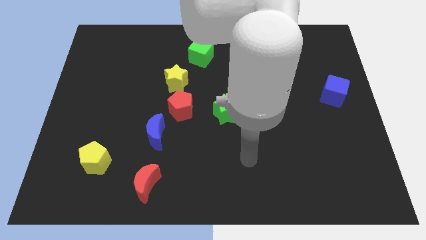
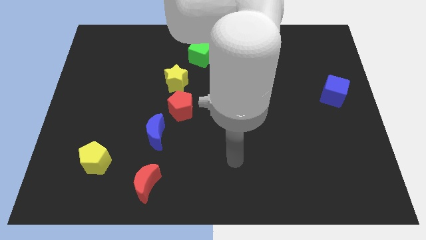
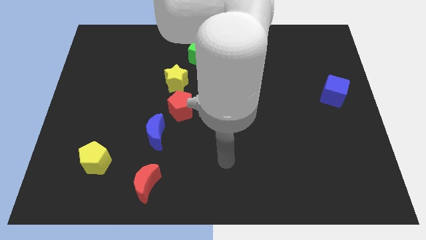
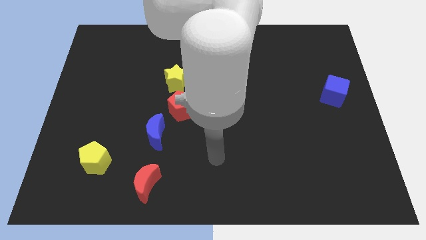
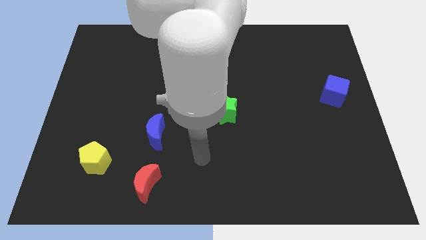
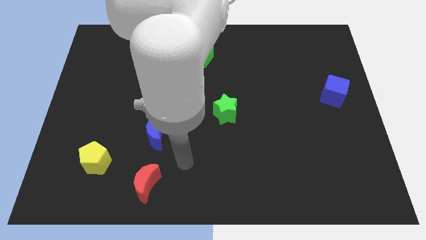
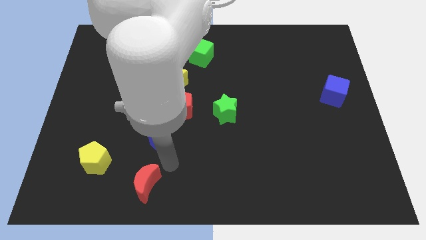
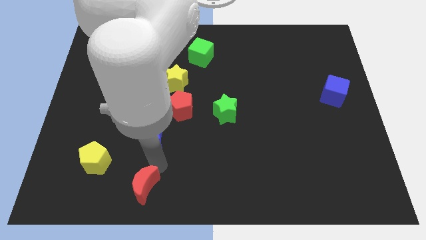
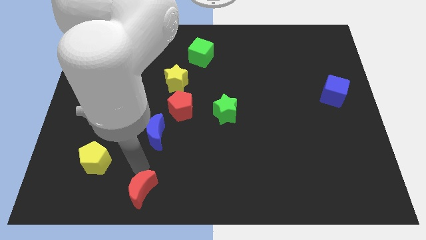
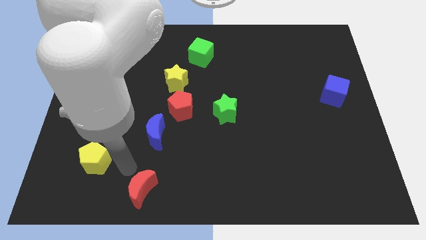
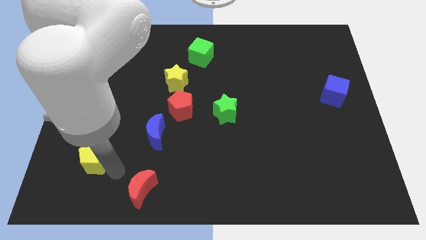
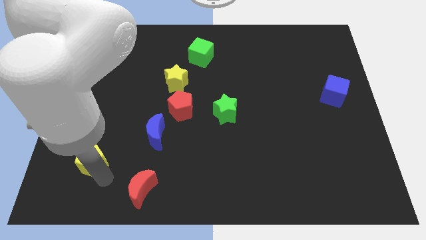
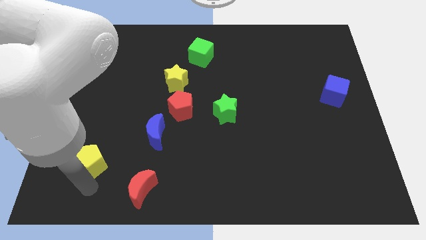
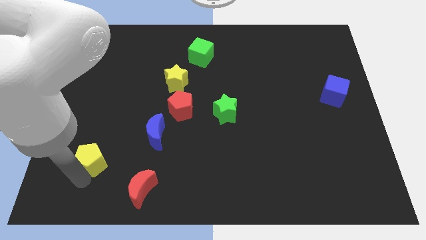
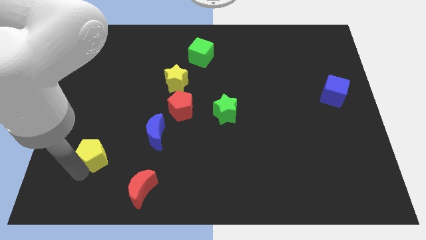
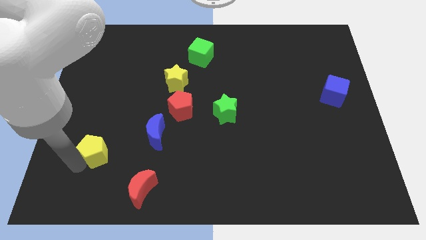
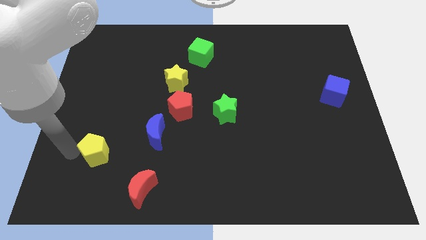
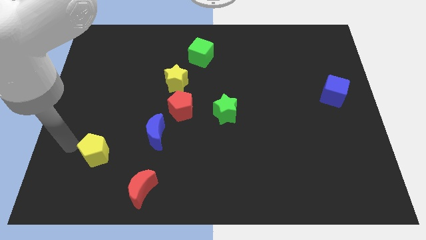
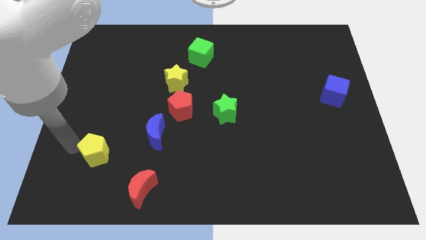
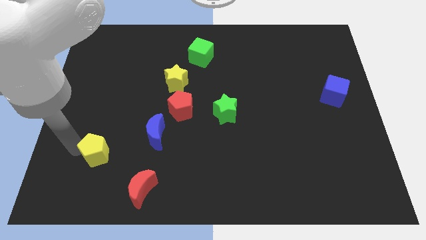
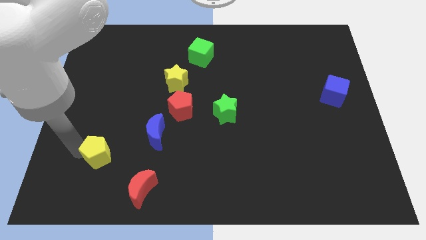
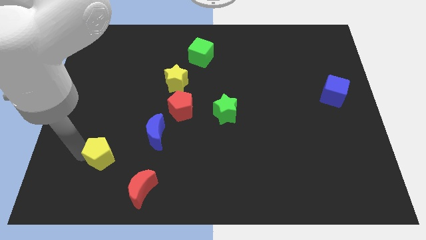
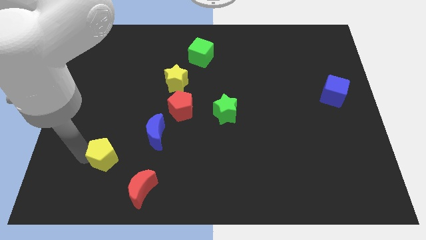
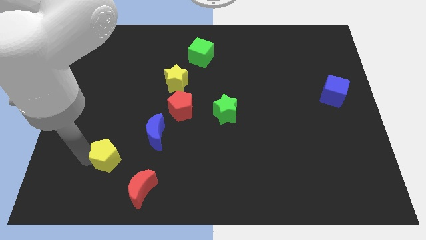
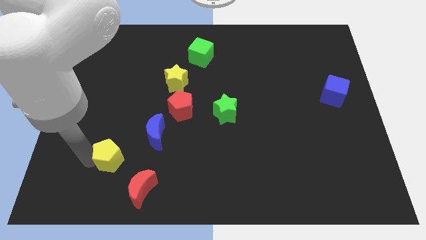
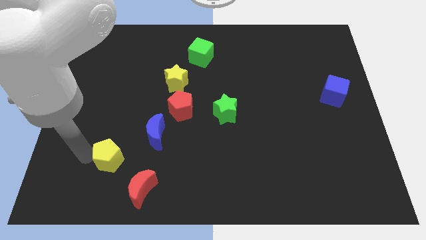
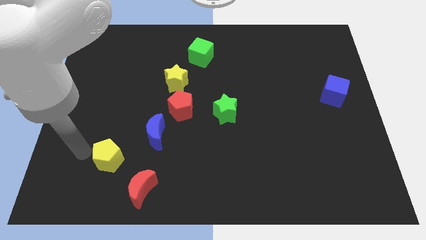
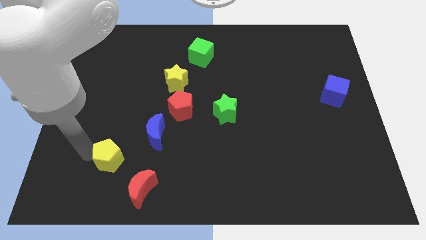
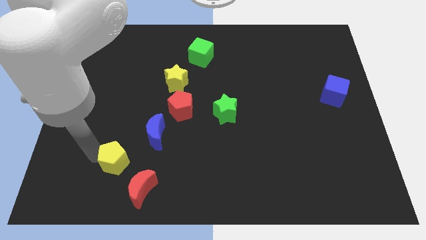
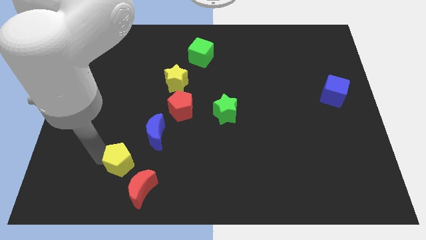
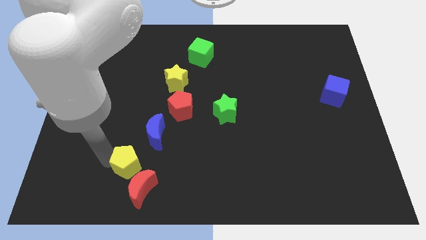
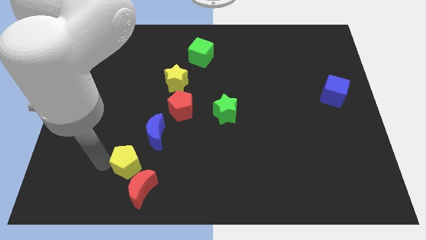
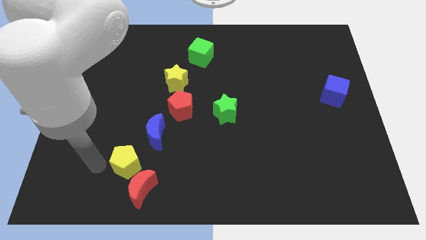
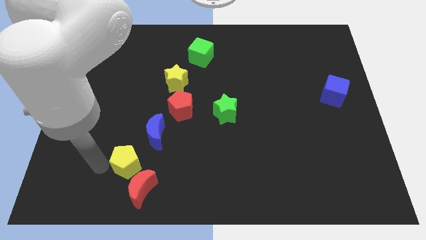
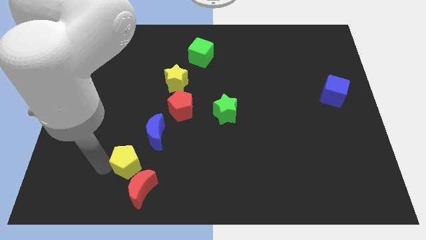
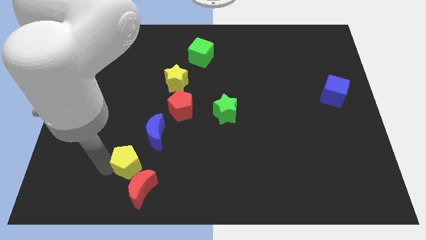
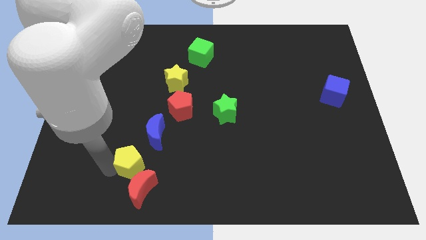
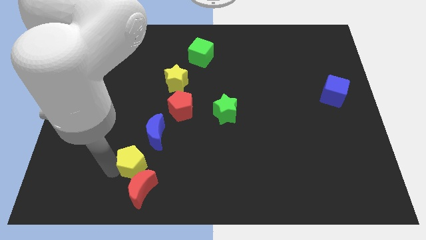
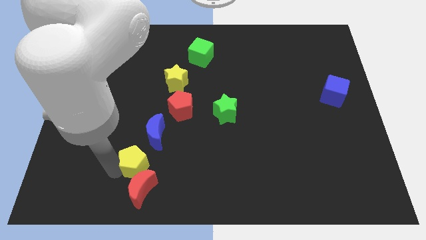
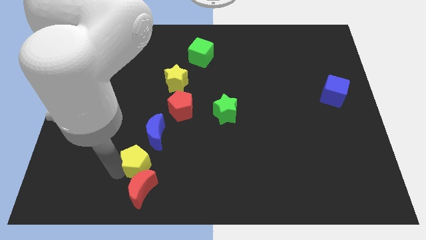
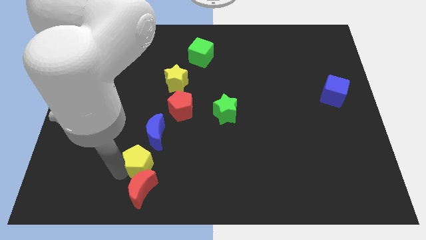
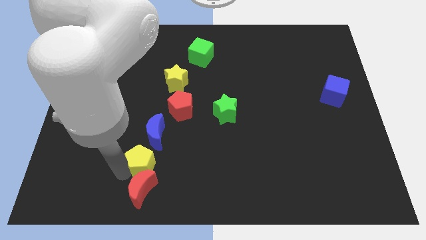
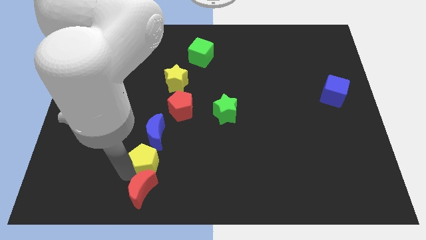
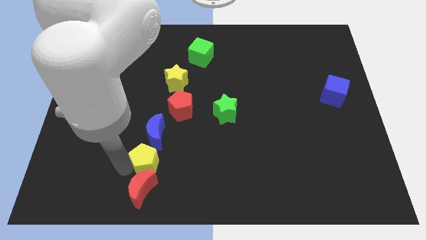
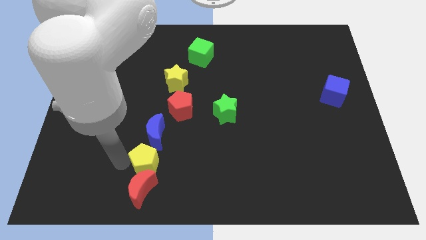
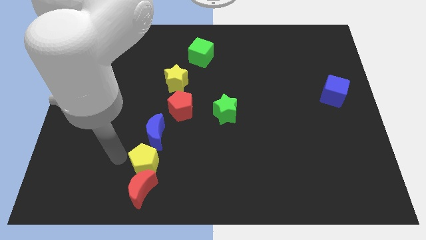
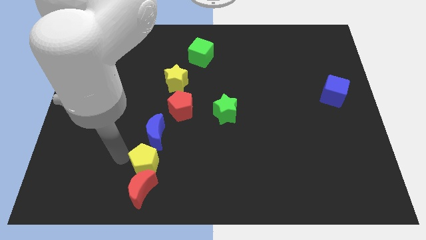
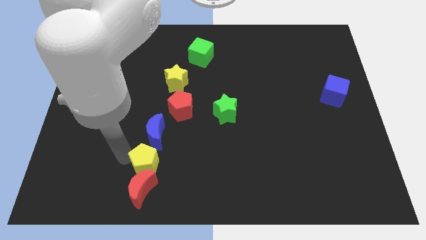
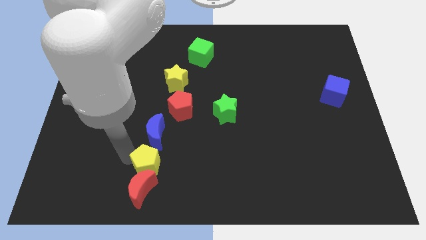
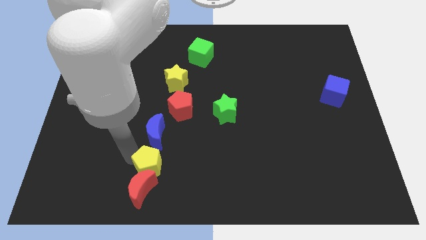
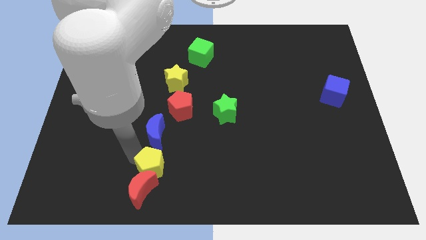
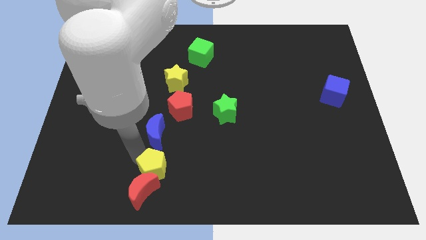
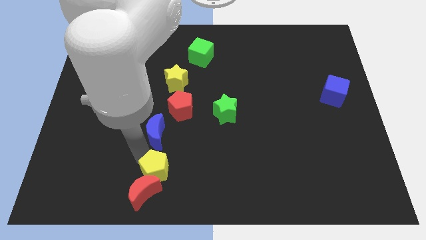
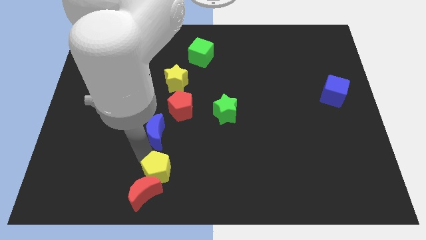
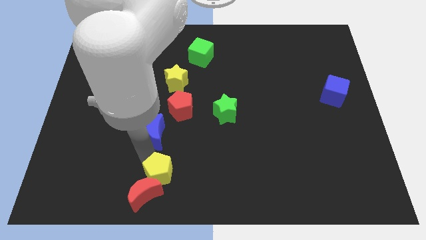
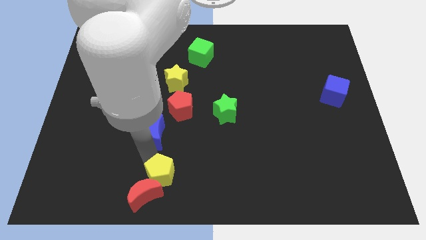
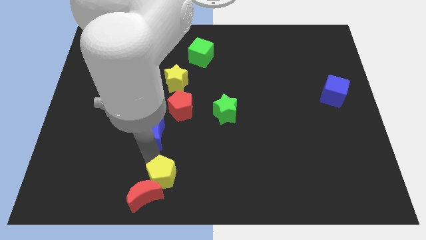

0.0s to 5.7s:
put the yellow pentagon just right of the red moon

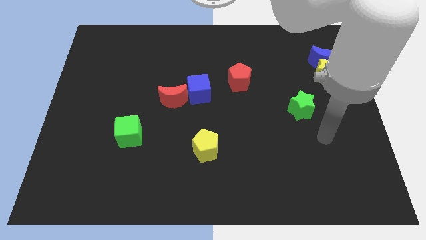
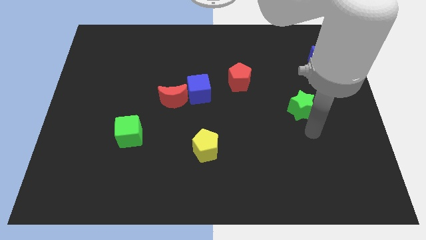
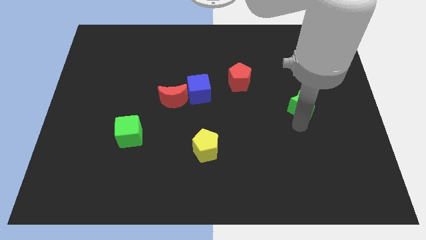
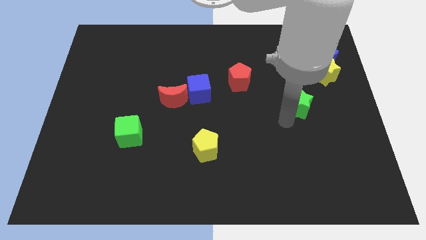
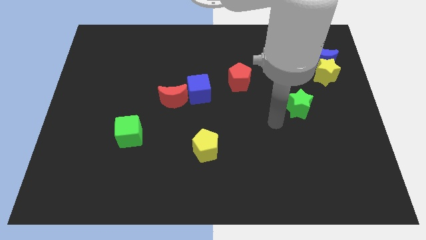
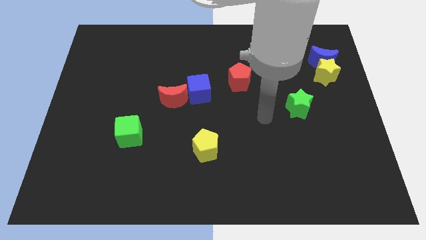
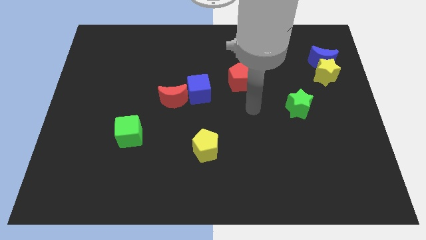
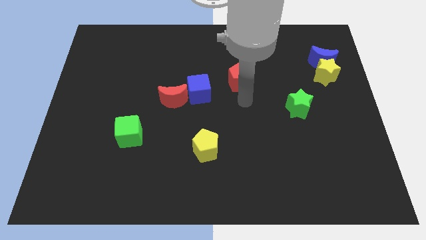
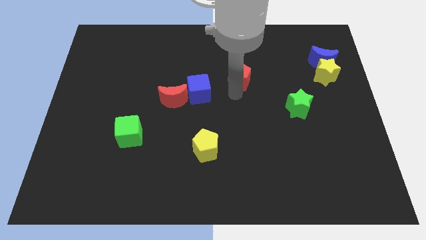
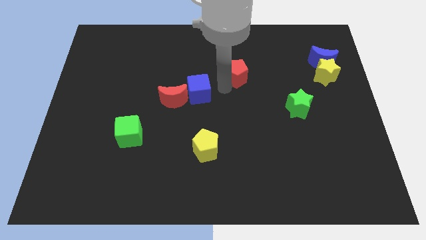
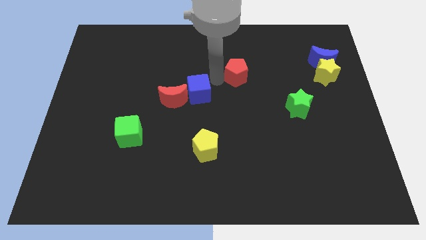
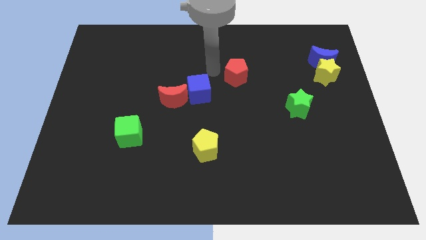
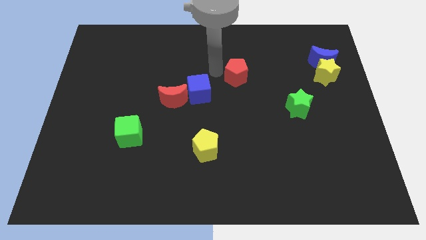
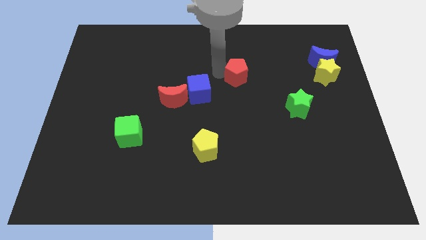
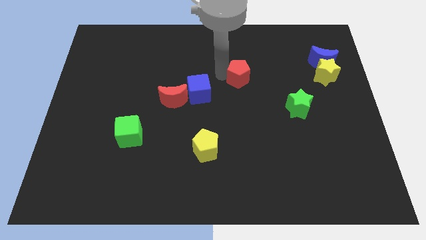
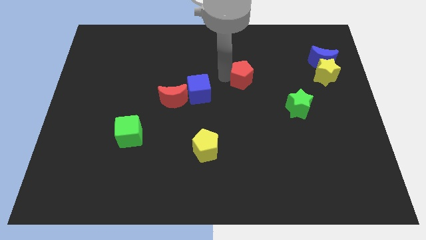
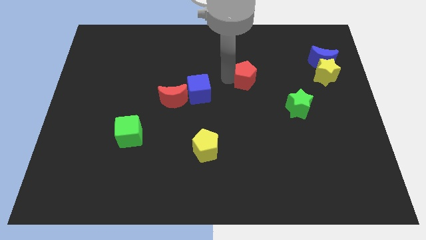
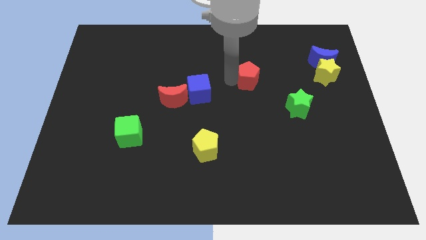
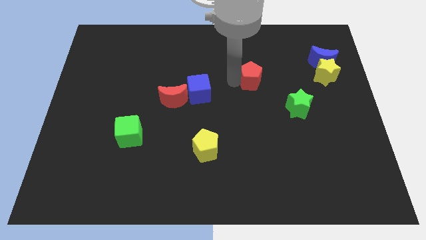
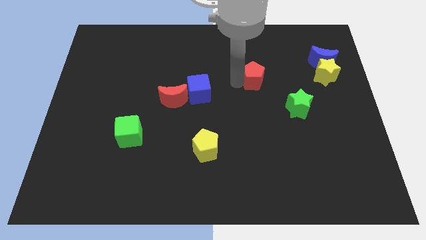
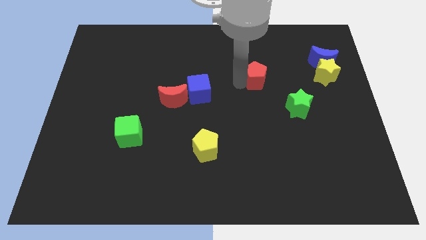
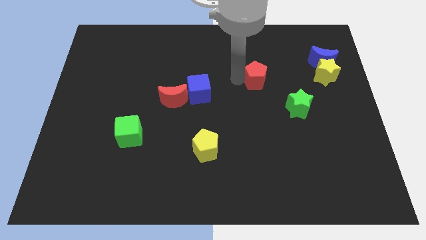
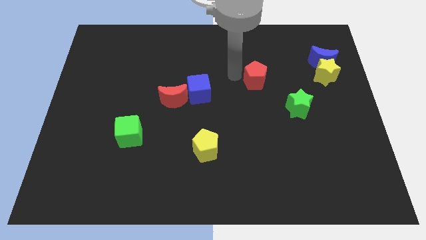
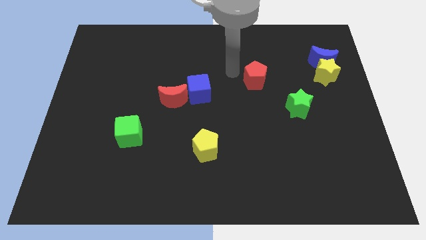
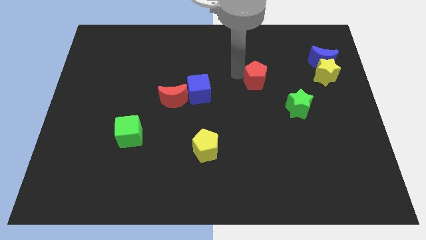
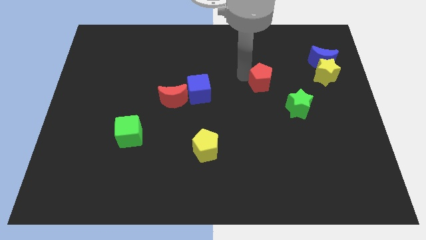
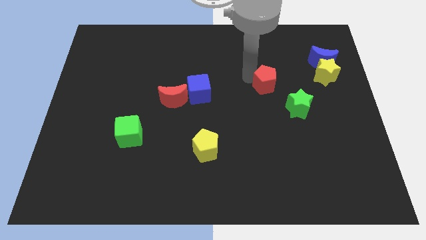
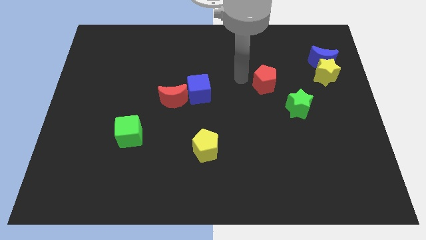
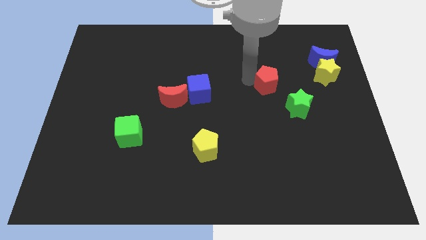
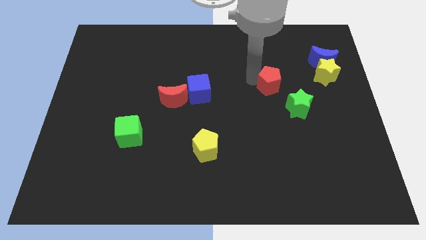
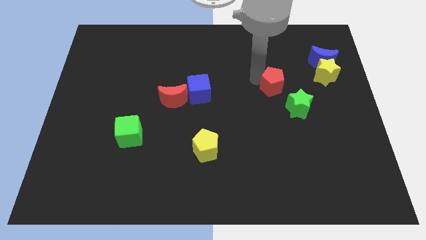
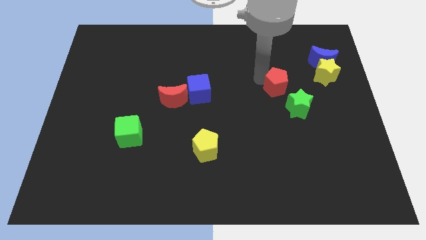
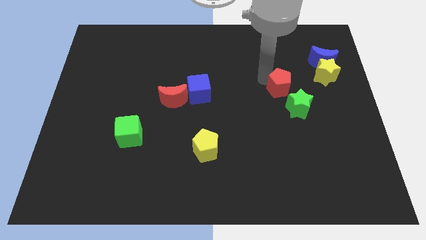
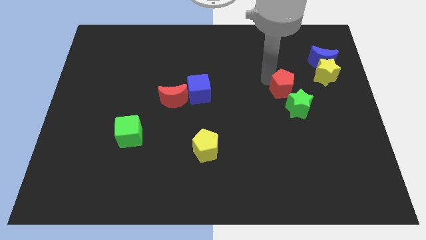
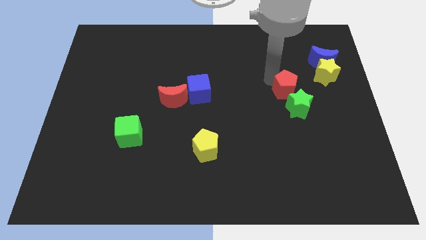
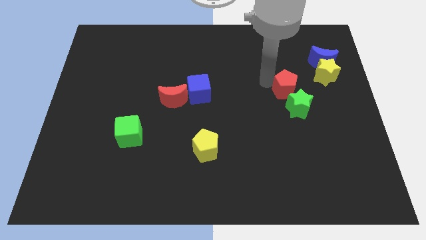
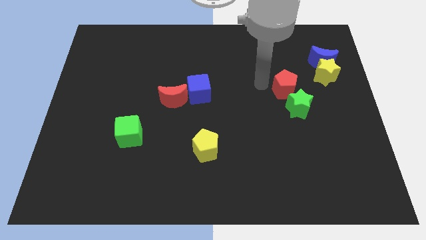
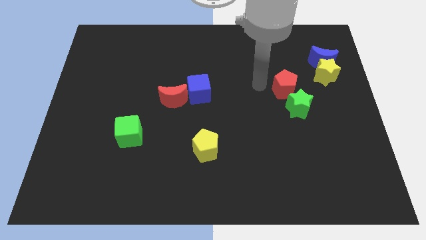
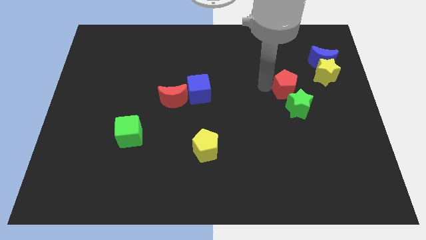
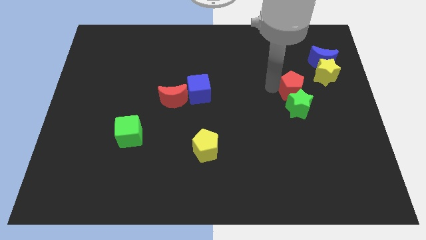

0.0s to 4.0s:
push the red pentagon to the bottom left side of the yellow star
